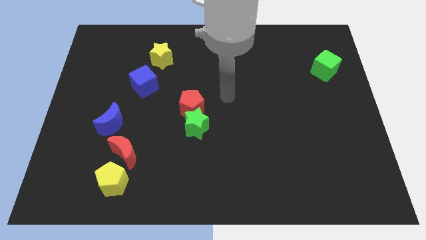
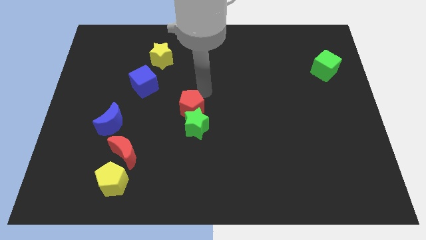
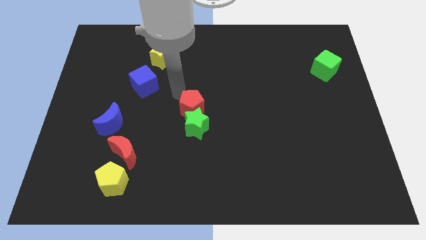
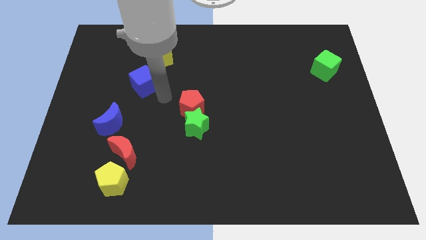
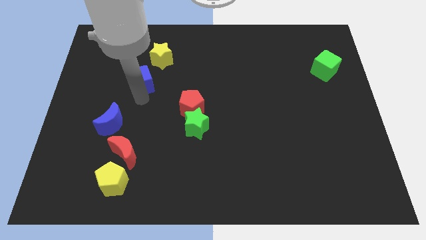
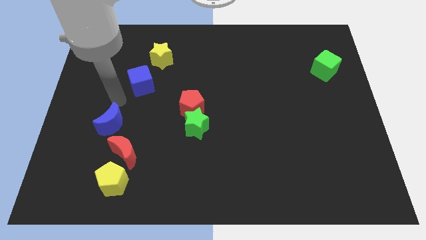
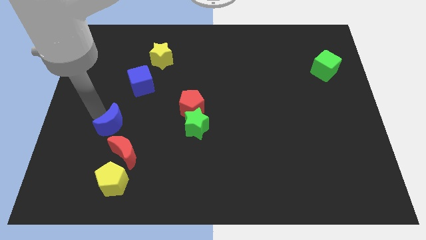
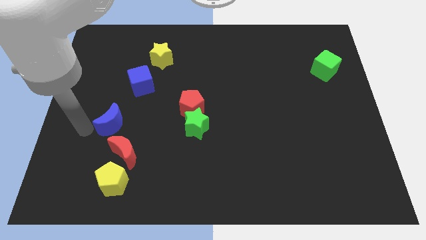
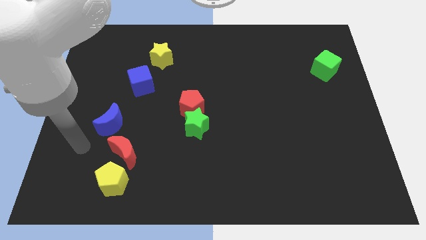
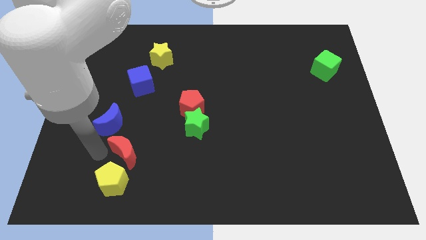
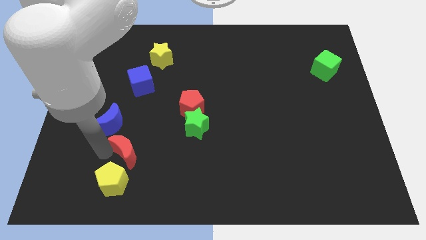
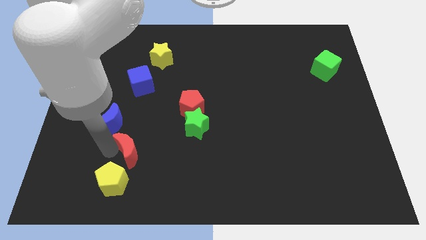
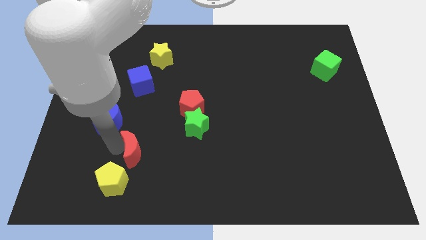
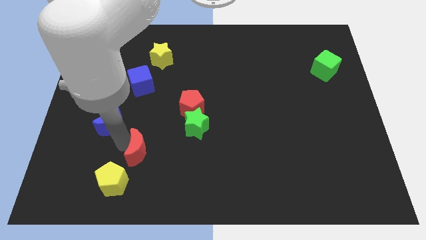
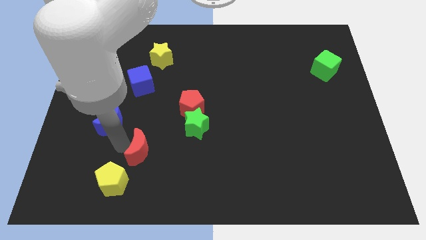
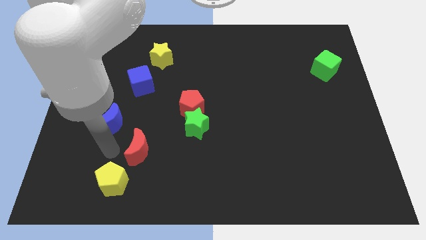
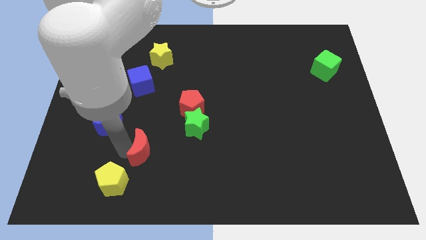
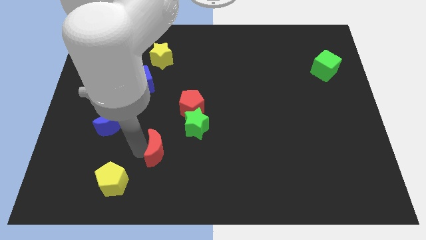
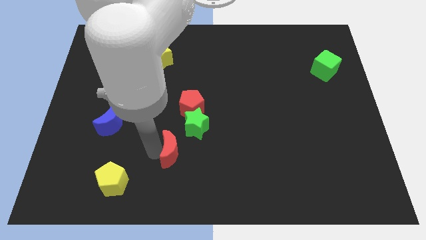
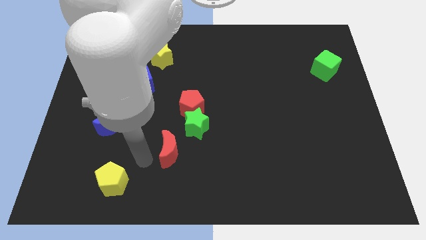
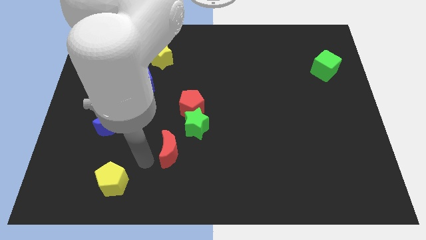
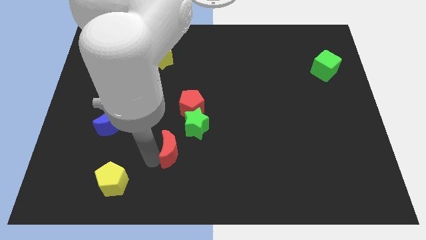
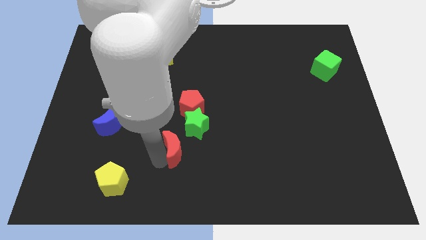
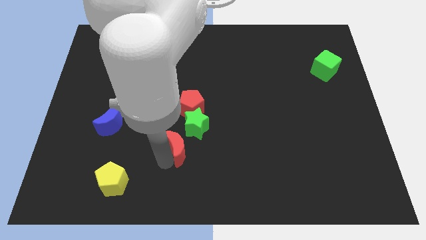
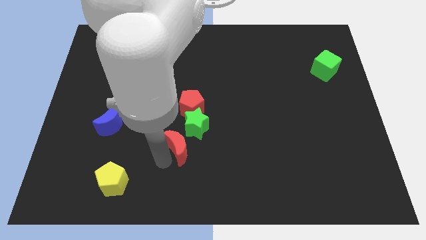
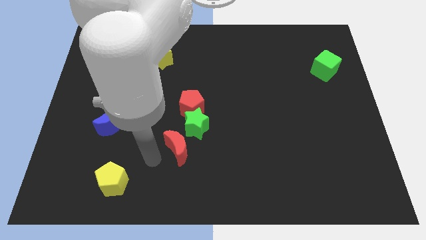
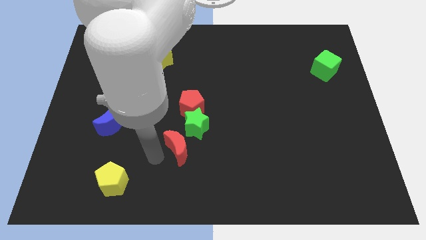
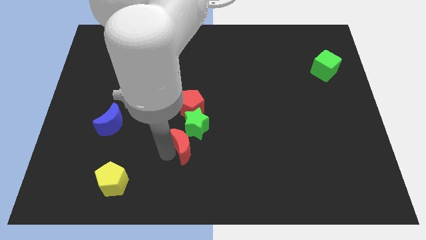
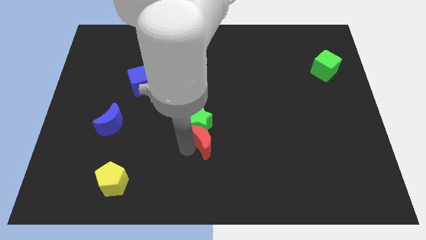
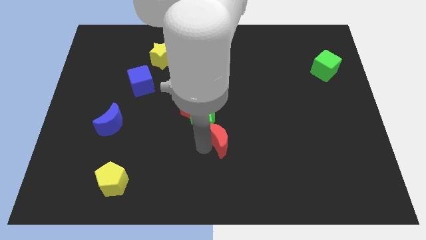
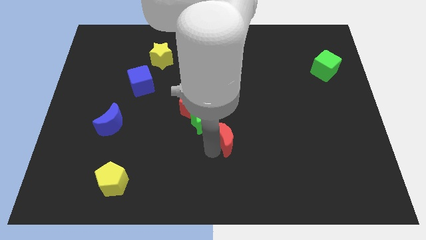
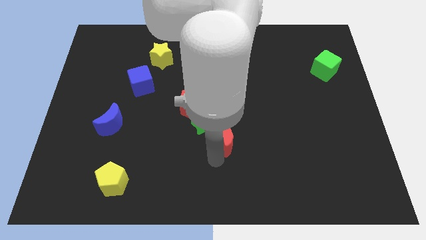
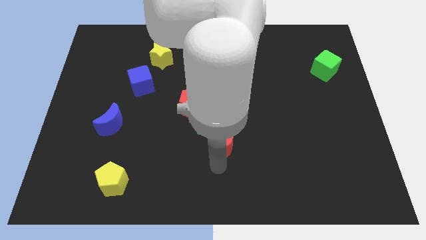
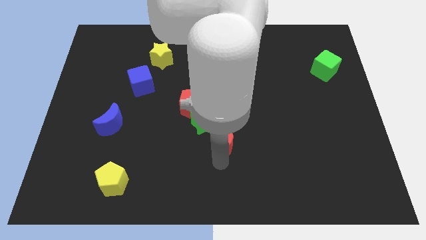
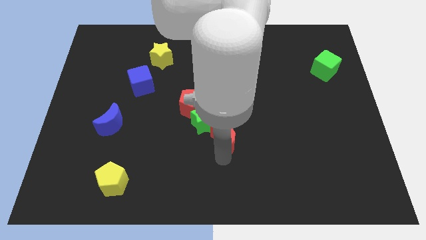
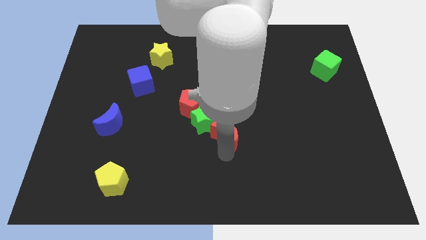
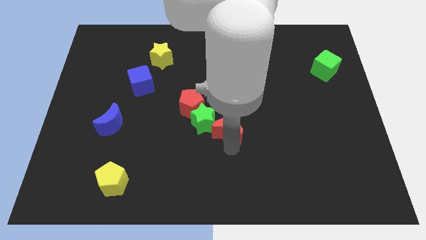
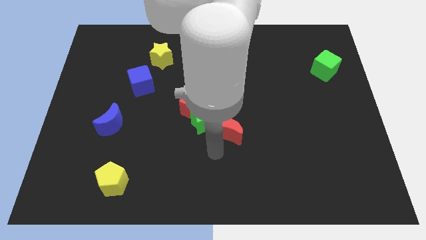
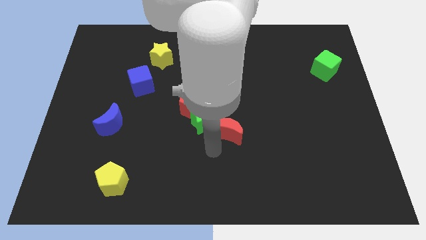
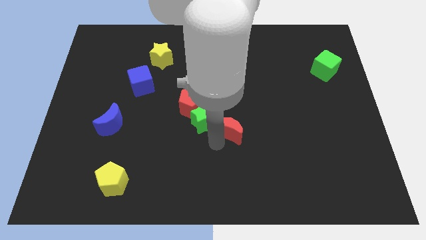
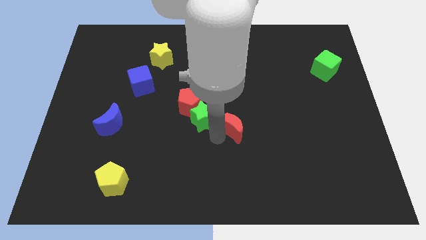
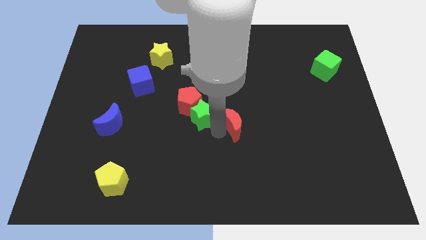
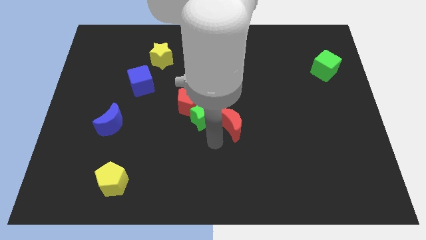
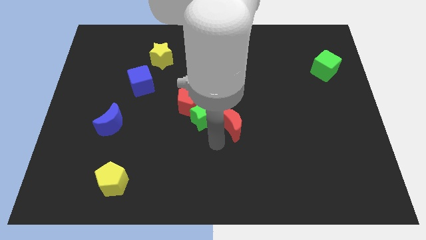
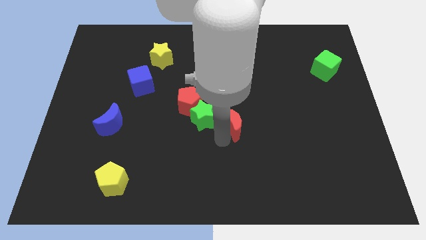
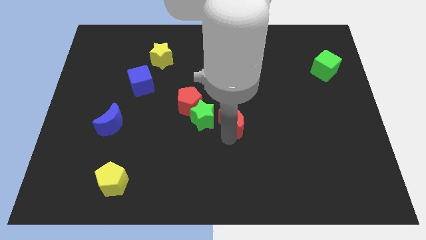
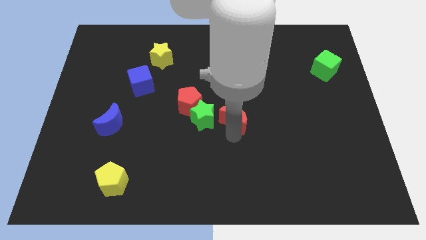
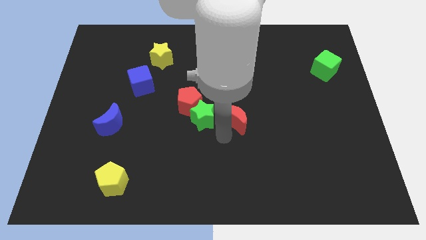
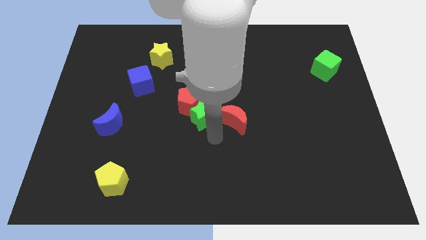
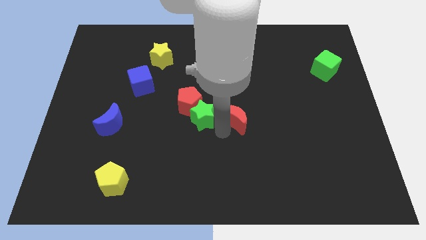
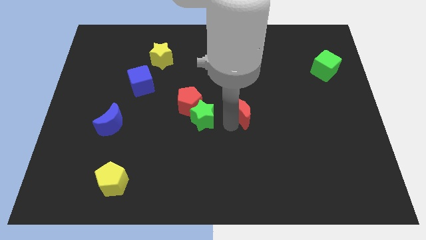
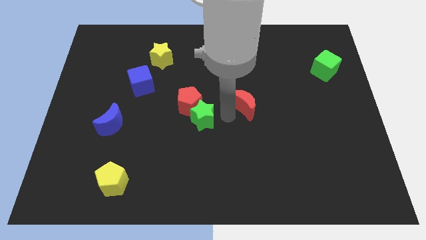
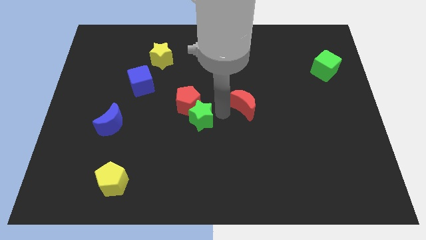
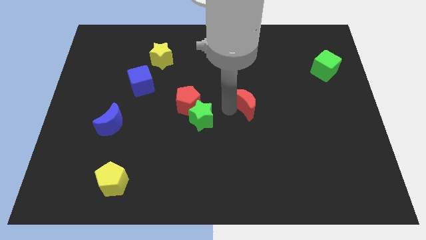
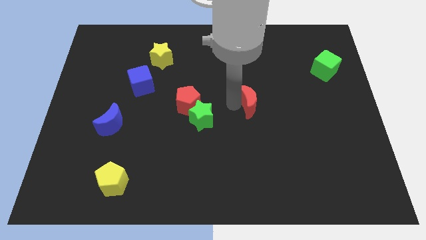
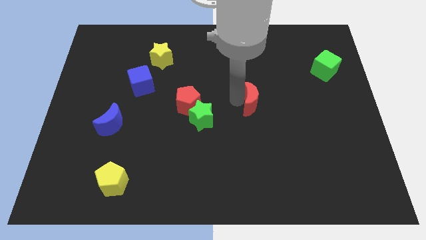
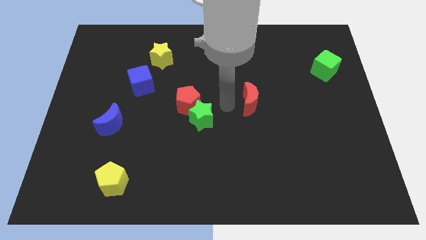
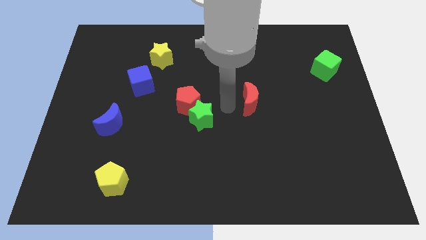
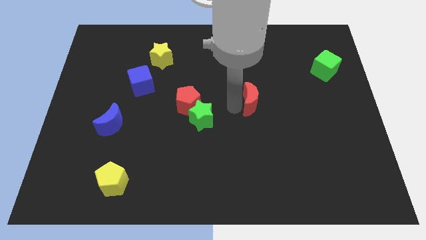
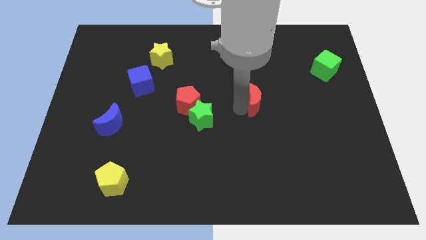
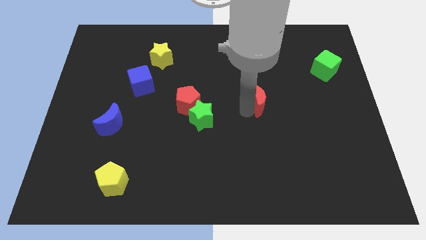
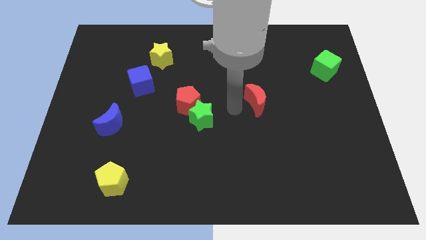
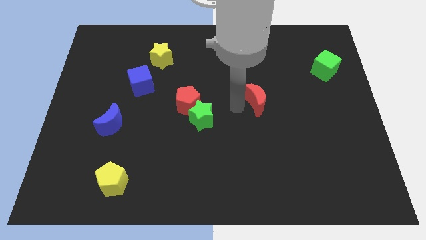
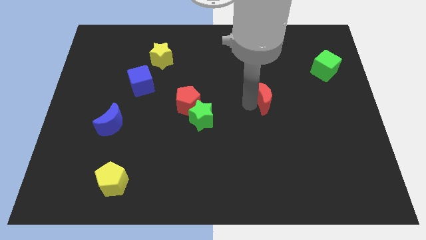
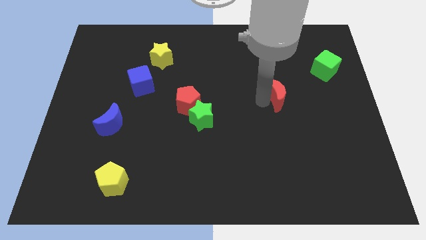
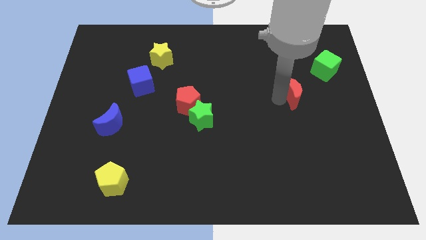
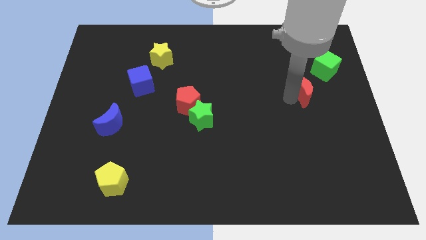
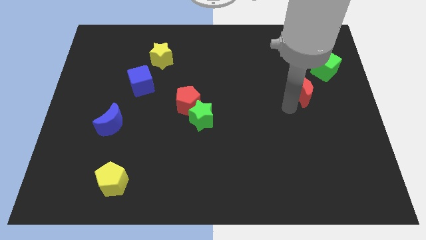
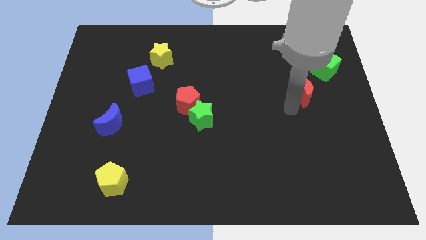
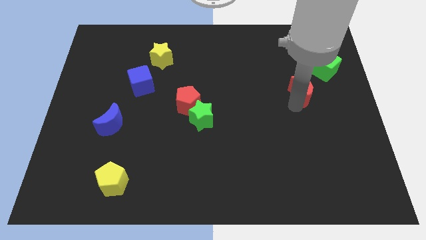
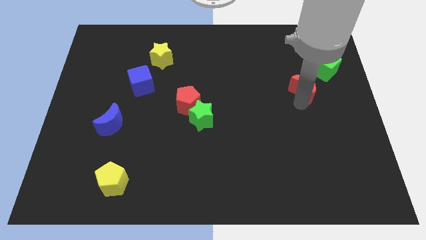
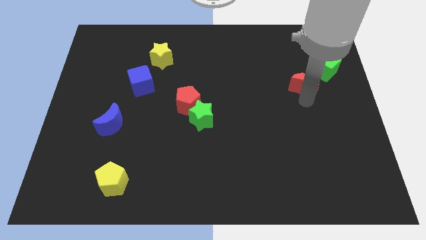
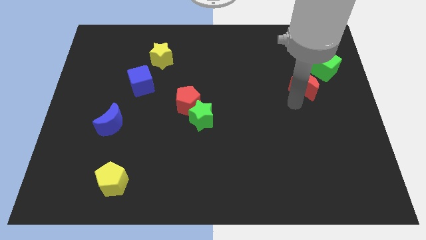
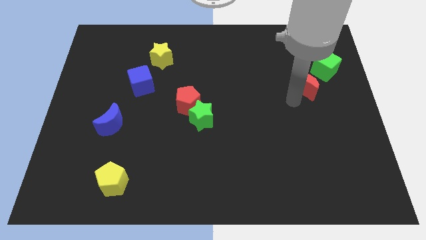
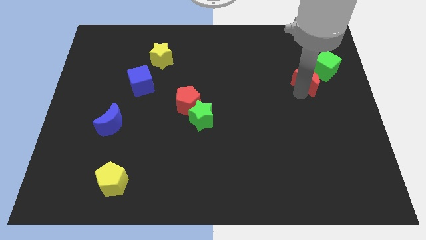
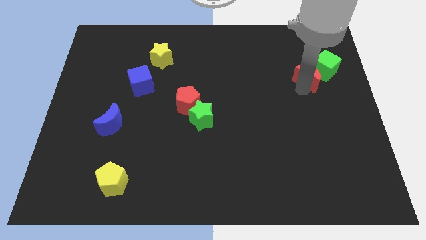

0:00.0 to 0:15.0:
push the red moon next to the green cube

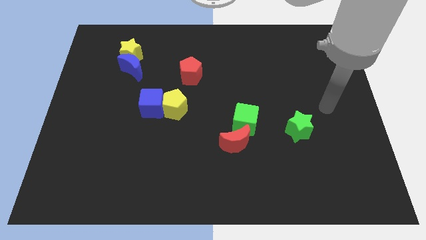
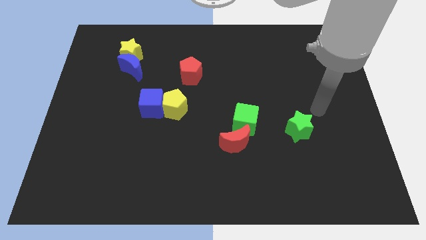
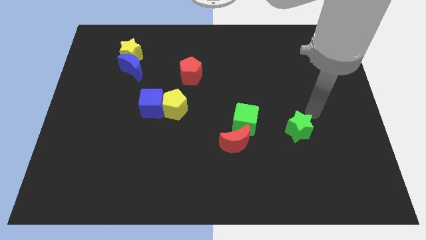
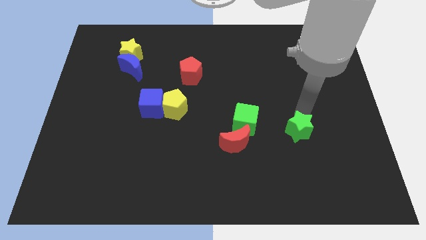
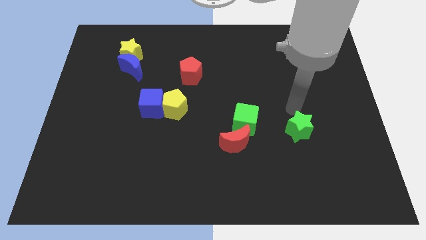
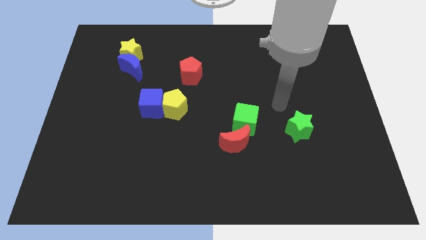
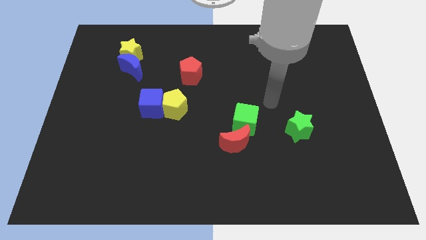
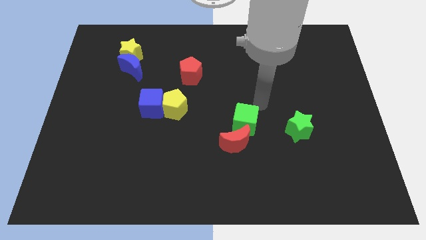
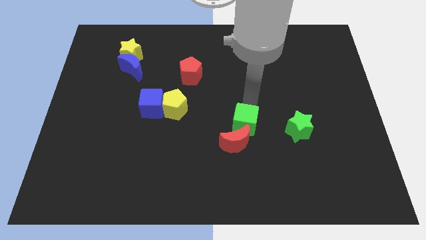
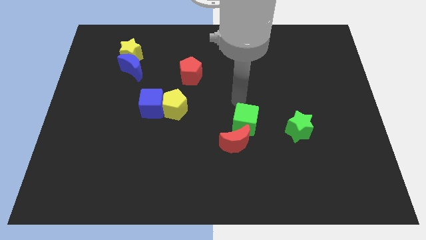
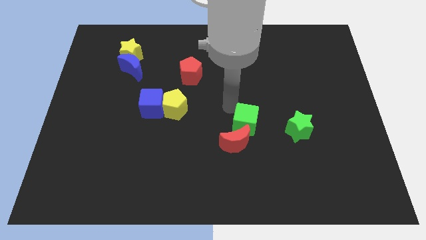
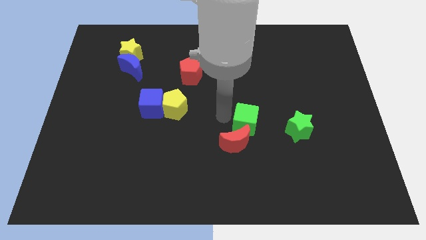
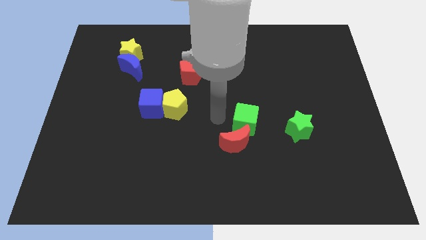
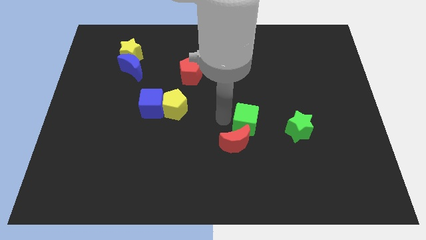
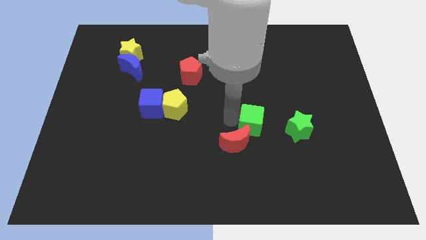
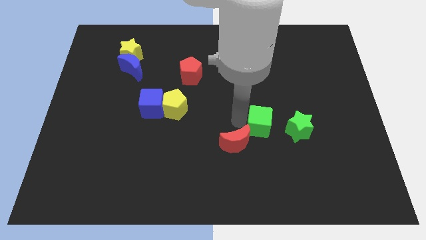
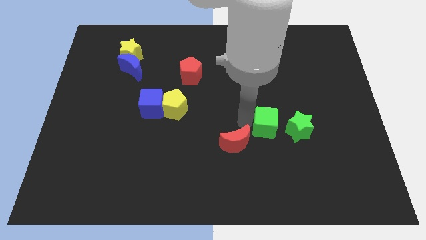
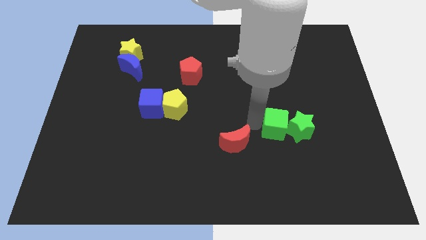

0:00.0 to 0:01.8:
put the green cube towards the green star
